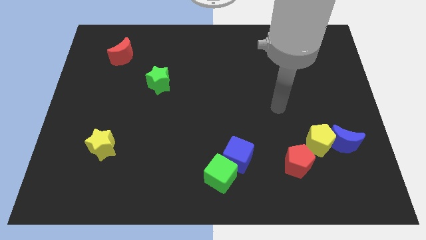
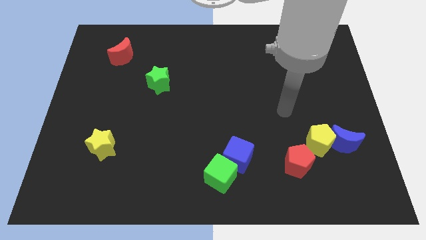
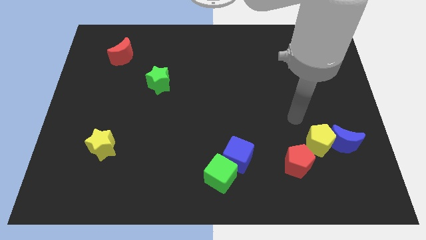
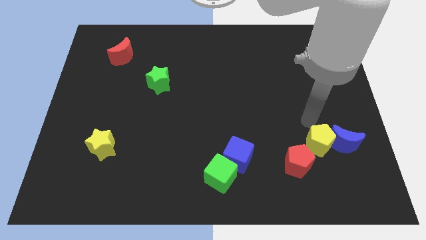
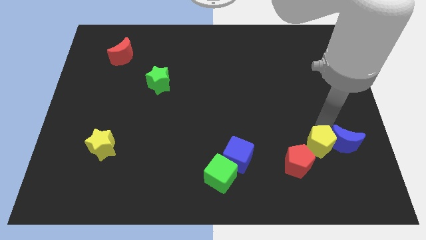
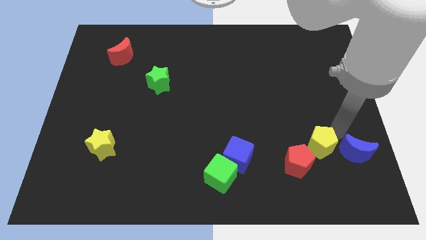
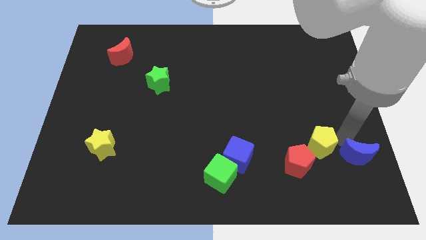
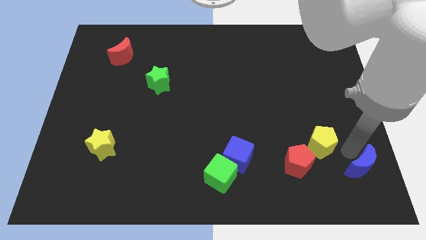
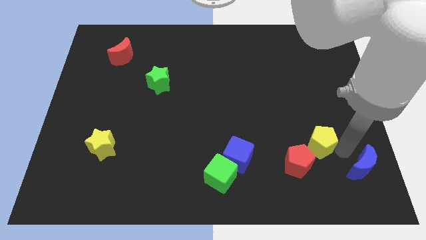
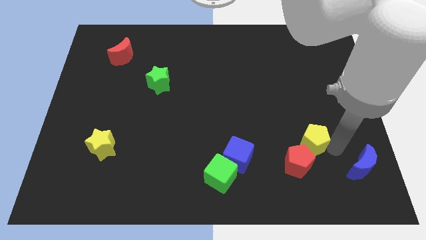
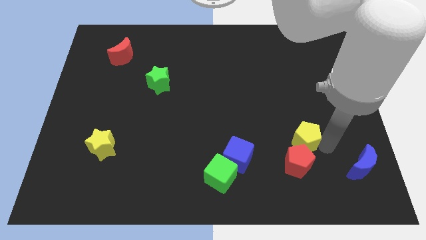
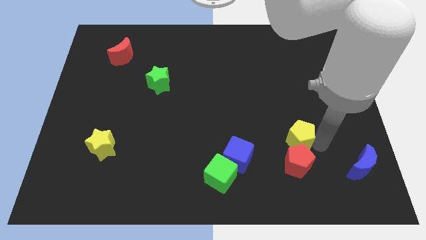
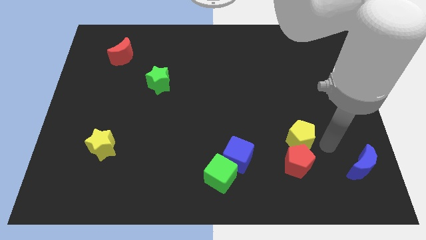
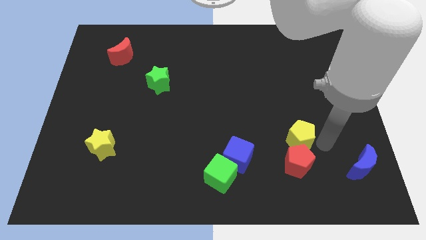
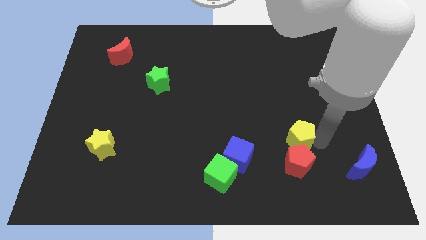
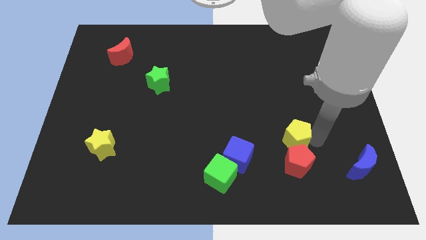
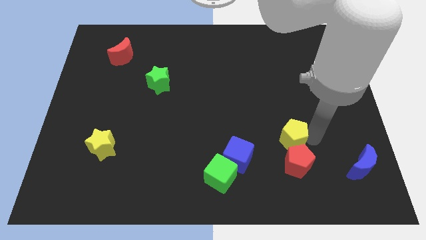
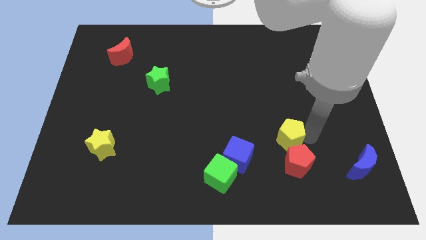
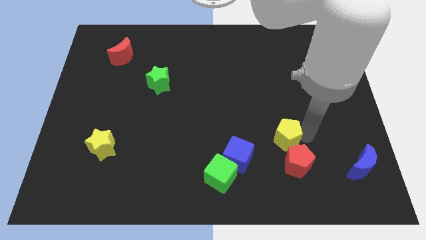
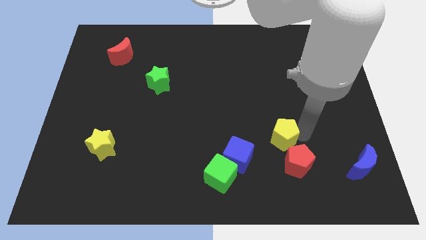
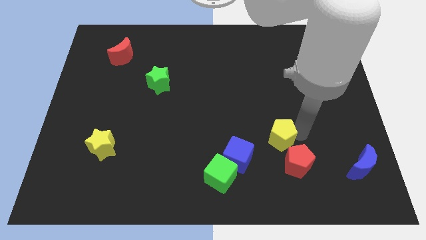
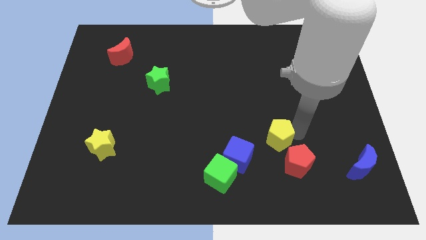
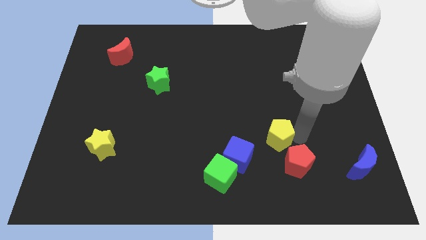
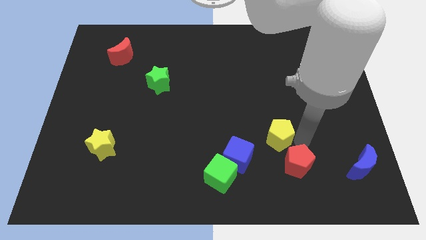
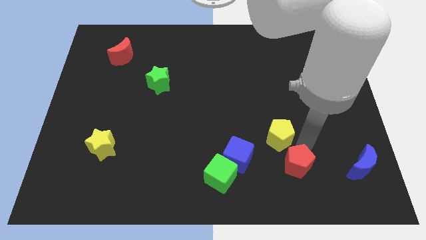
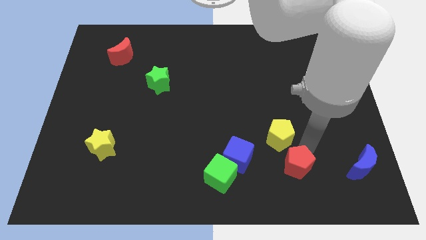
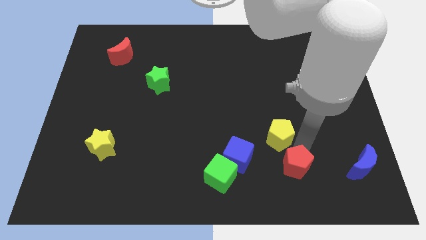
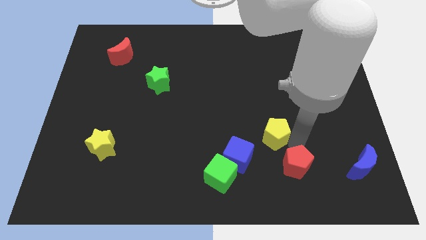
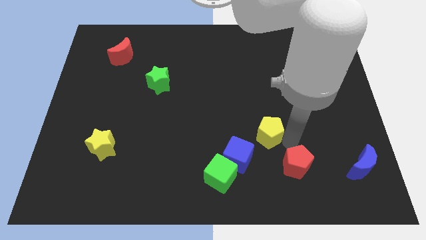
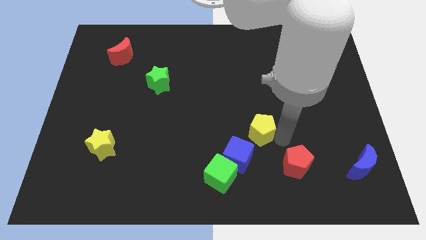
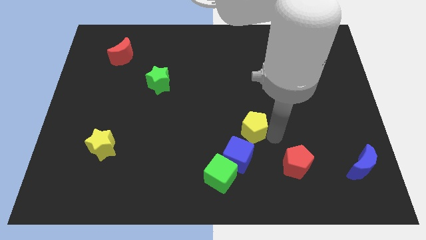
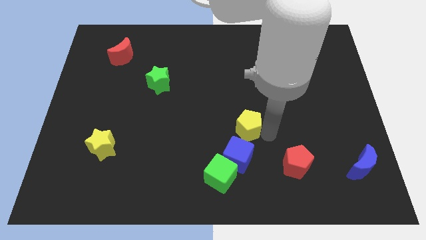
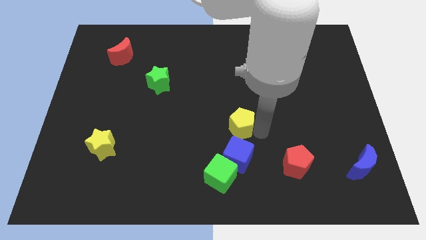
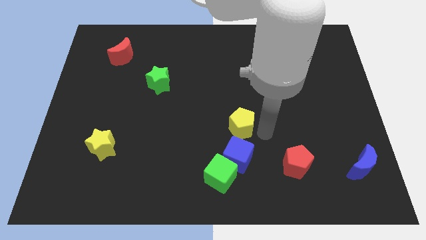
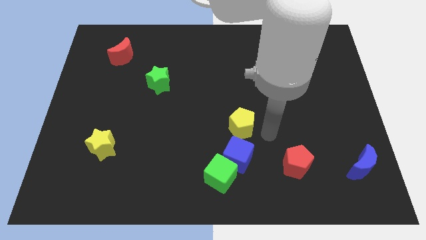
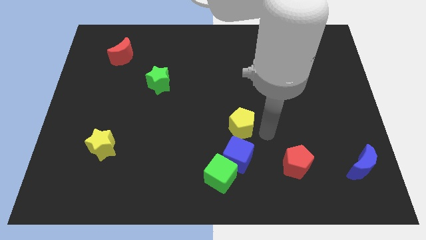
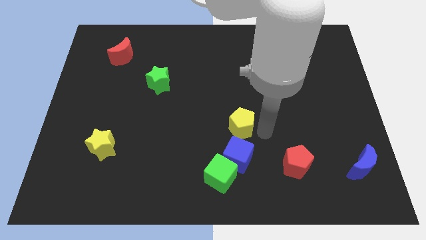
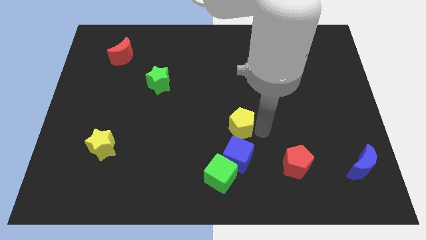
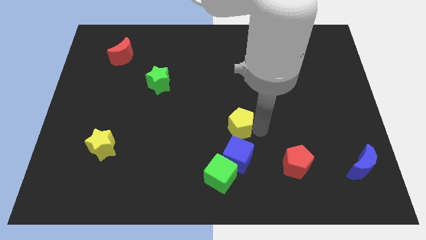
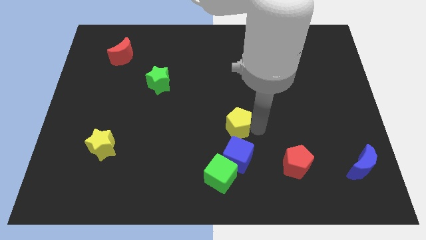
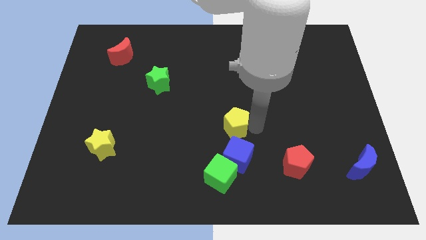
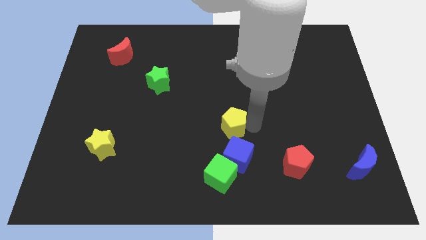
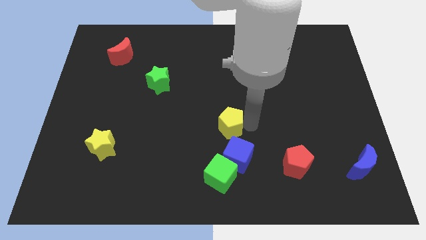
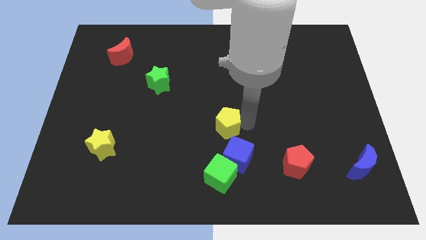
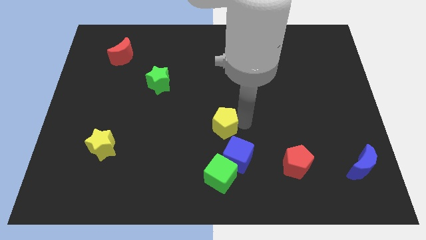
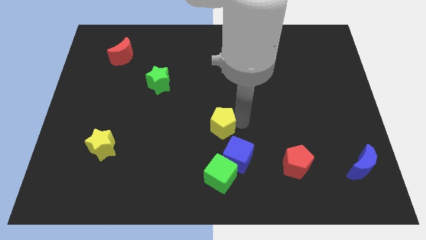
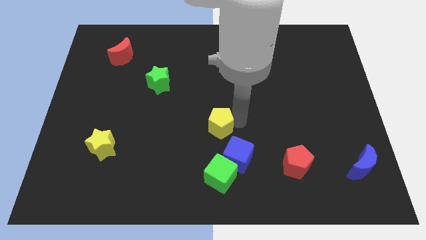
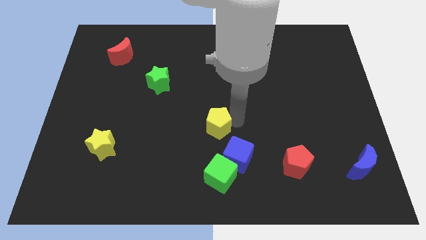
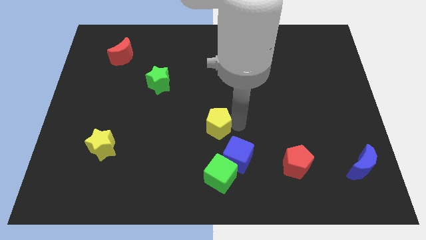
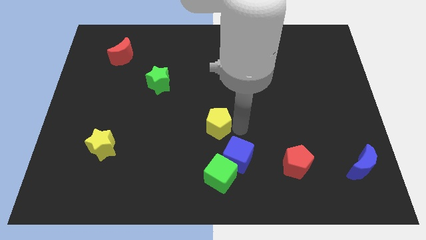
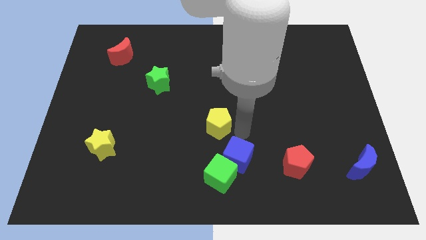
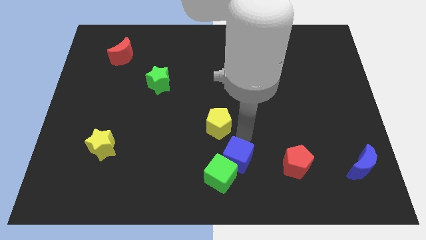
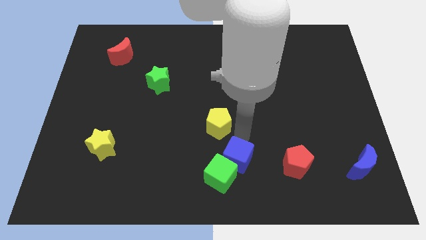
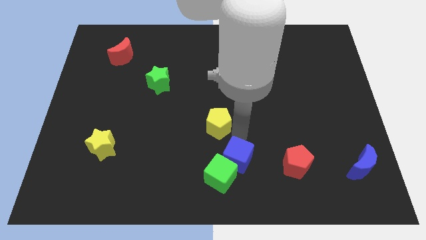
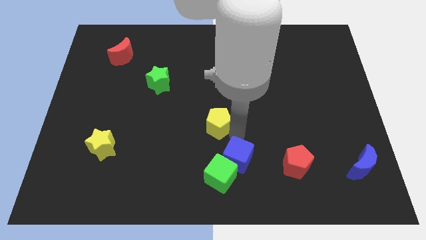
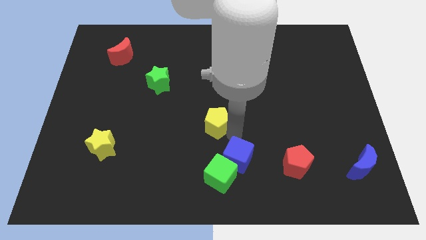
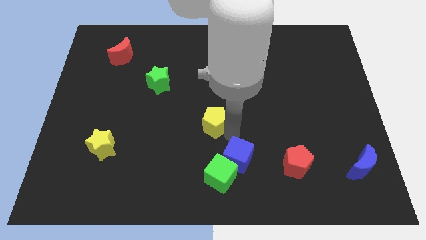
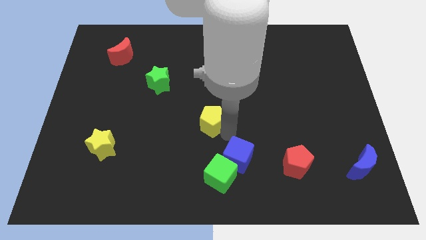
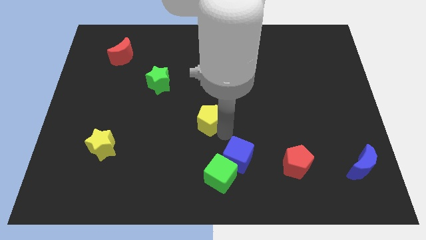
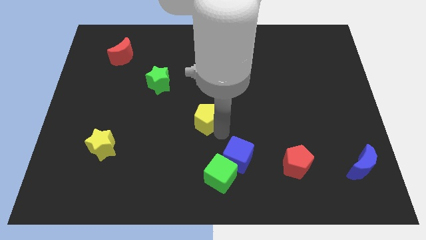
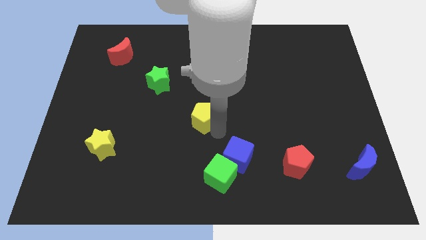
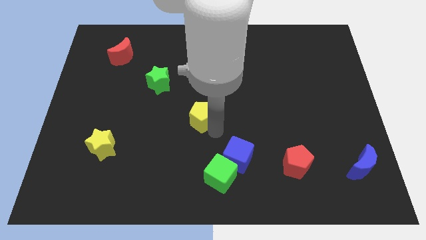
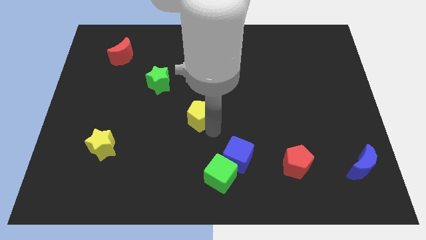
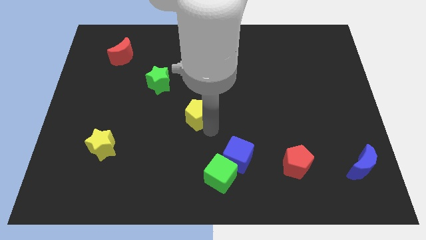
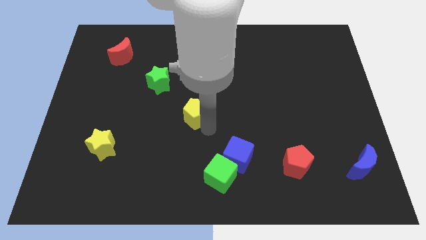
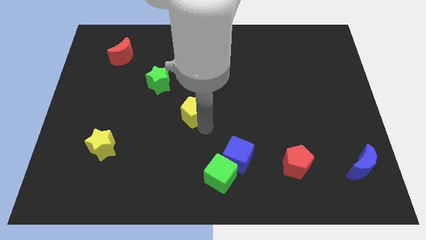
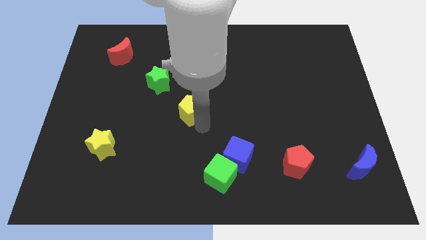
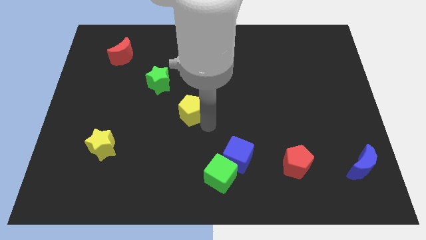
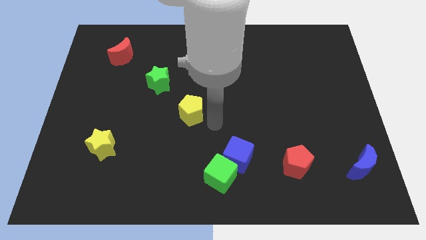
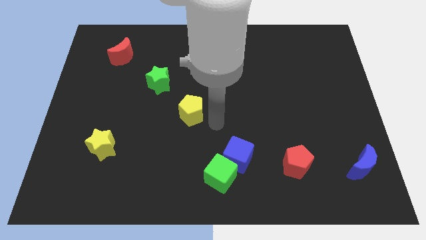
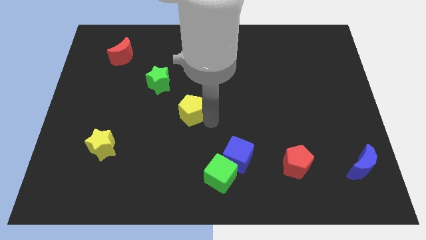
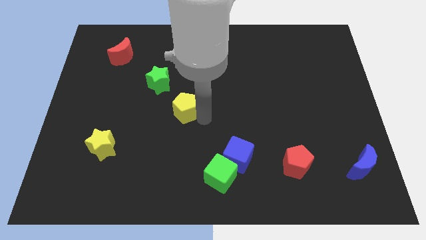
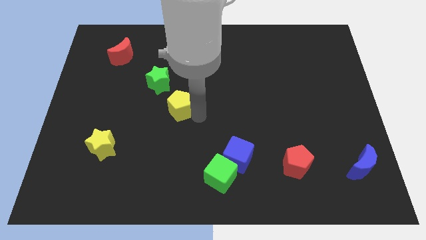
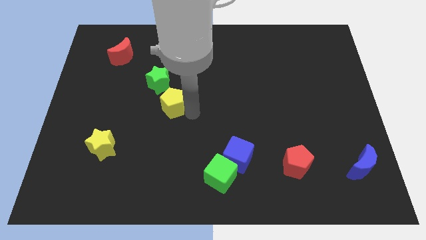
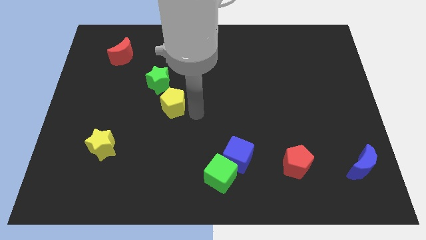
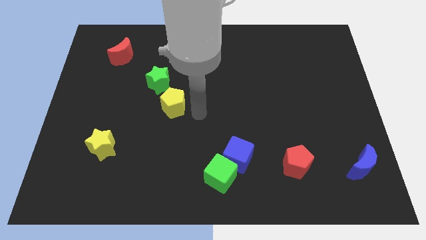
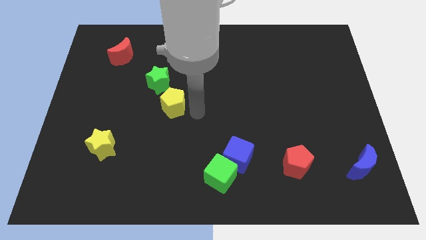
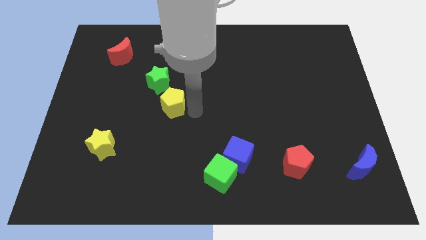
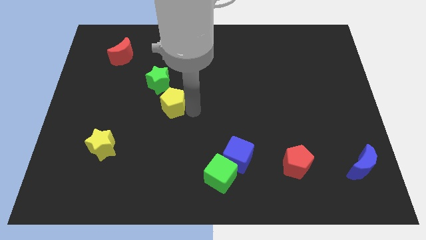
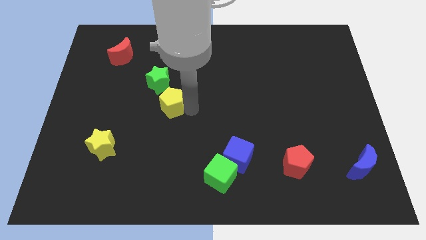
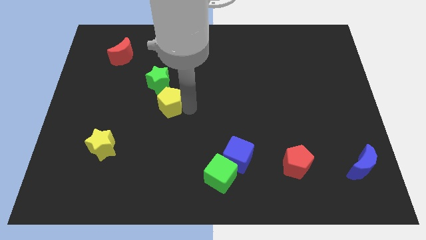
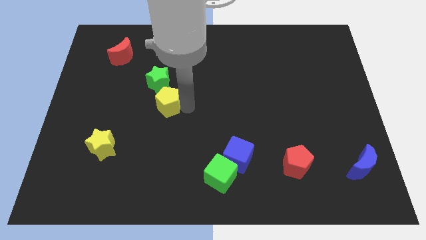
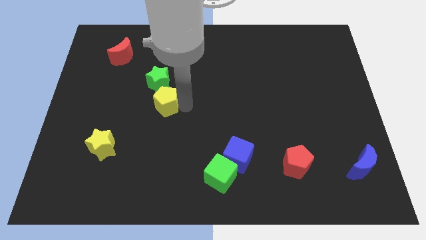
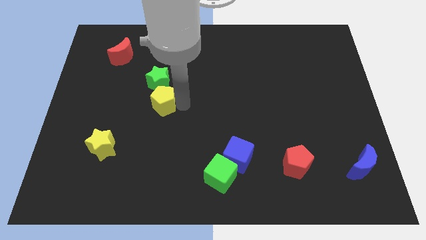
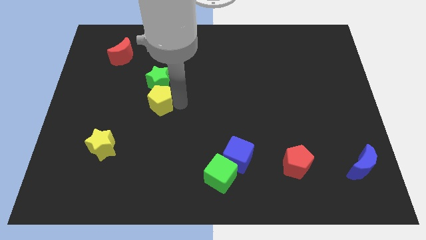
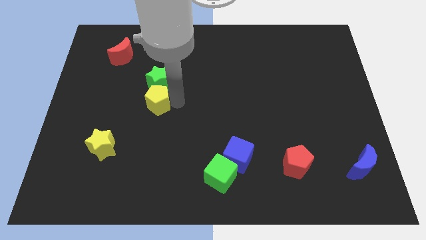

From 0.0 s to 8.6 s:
put the yellow pentagon diagonally down and to the left of the green star
